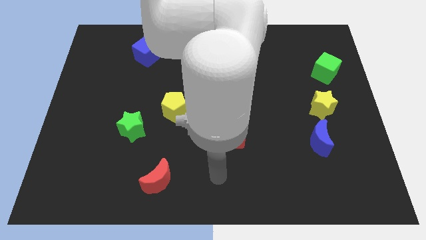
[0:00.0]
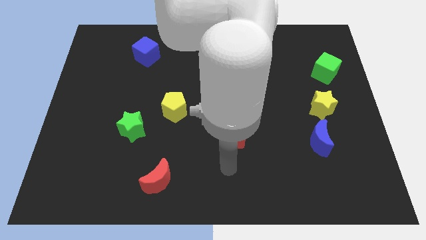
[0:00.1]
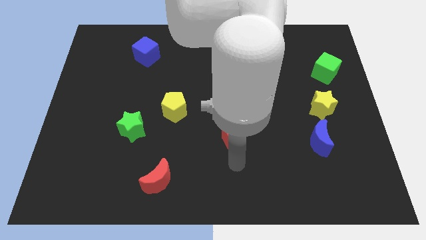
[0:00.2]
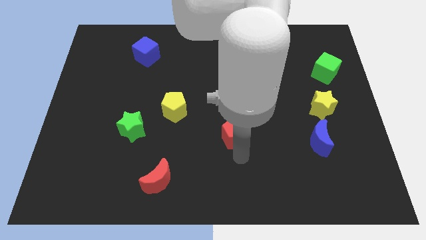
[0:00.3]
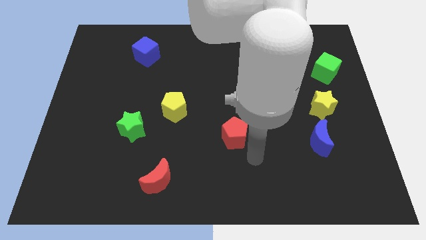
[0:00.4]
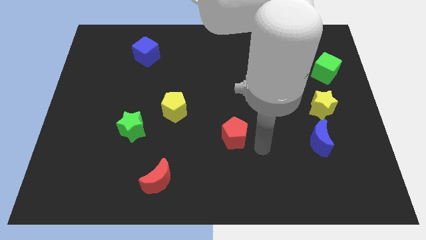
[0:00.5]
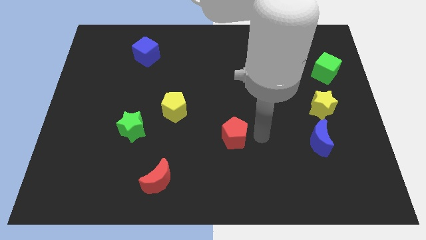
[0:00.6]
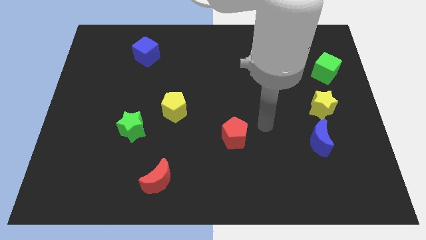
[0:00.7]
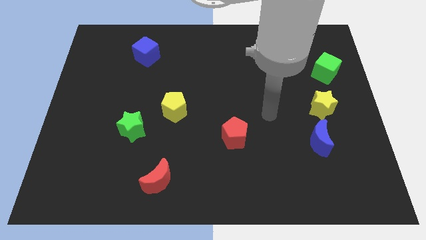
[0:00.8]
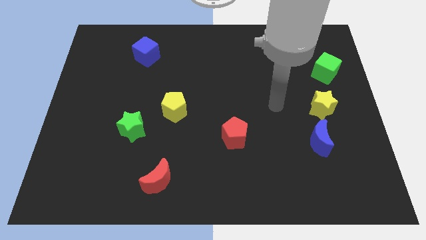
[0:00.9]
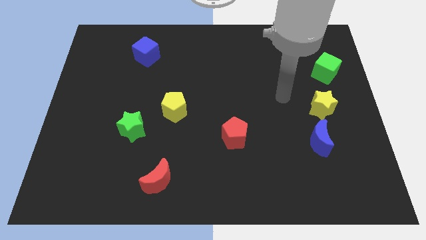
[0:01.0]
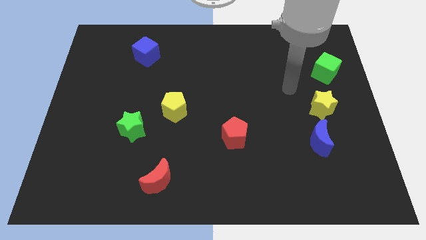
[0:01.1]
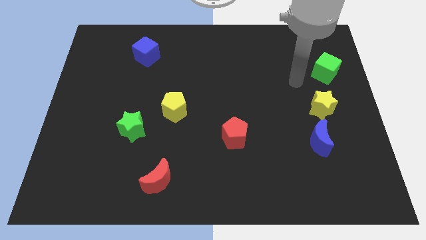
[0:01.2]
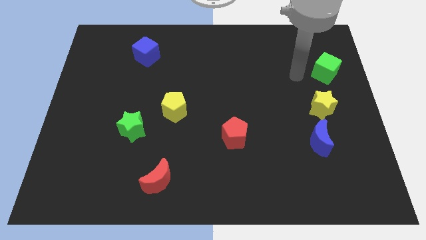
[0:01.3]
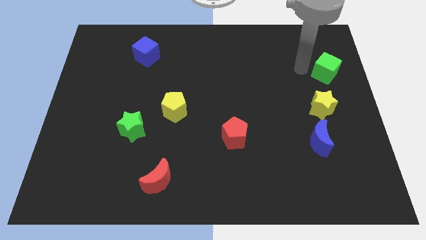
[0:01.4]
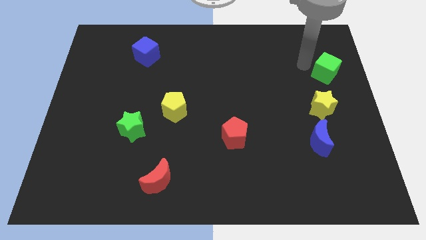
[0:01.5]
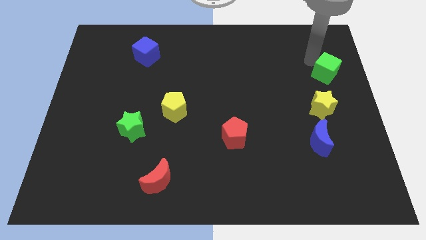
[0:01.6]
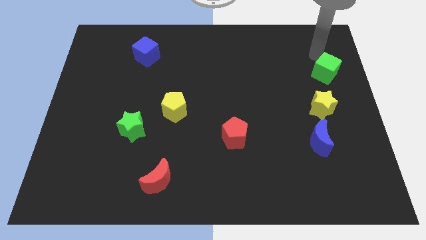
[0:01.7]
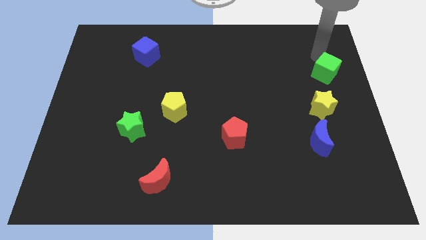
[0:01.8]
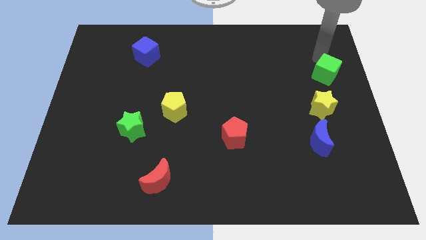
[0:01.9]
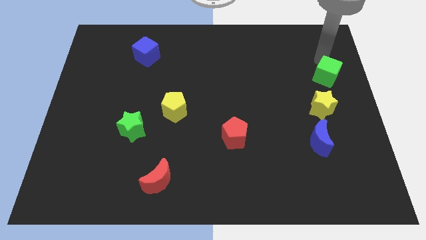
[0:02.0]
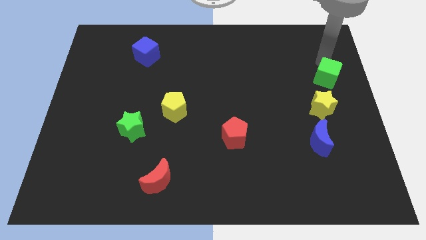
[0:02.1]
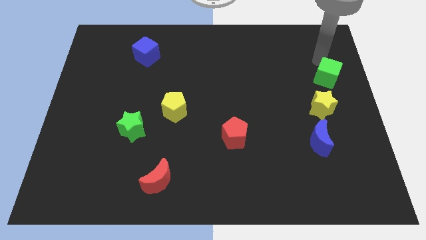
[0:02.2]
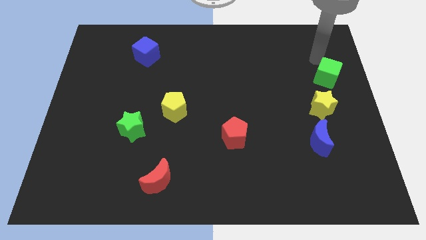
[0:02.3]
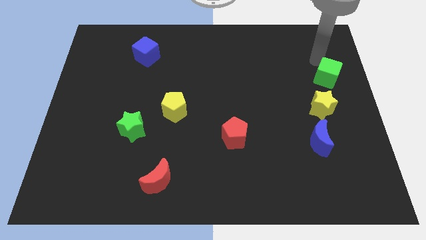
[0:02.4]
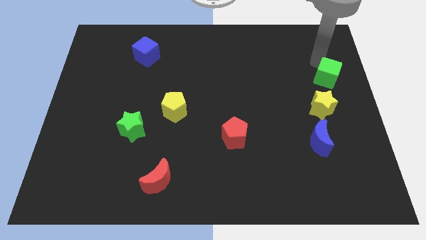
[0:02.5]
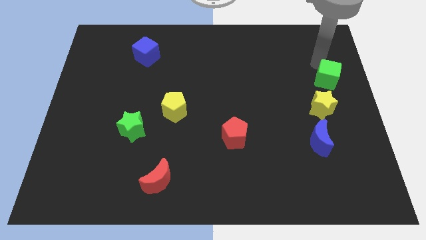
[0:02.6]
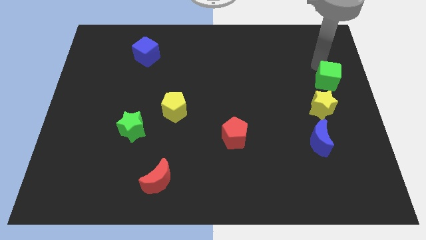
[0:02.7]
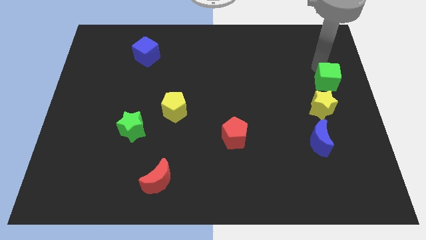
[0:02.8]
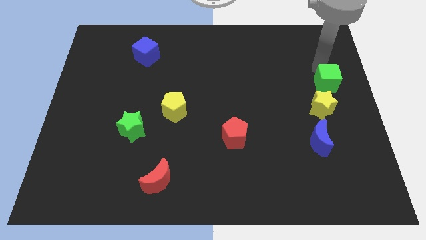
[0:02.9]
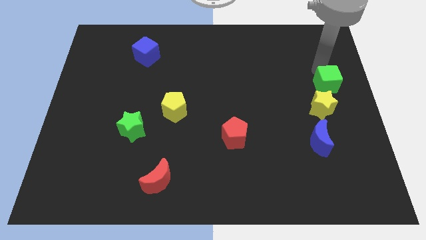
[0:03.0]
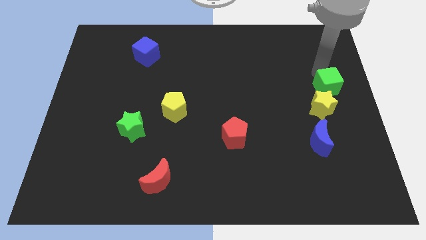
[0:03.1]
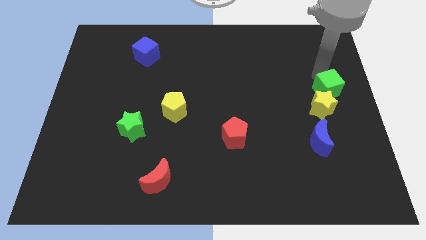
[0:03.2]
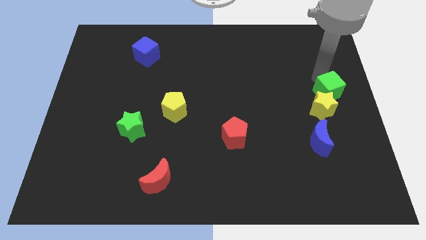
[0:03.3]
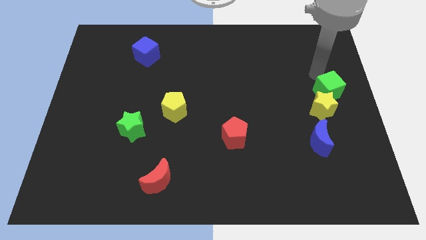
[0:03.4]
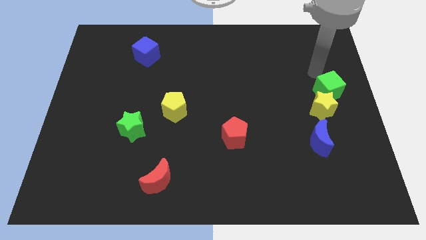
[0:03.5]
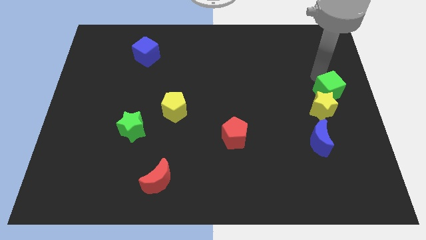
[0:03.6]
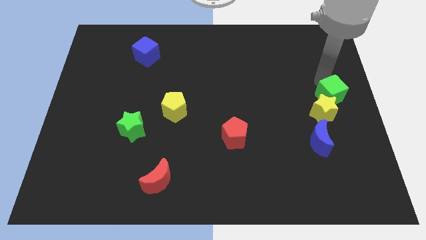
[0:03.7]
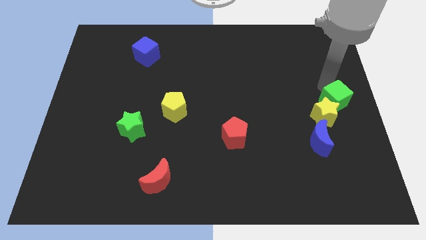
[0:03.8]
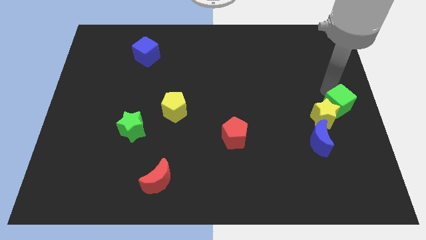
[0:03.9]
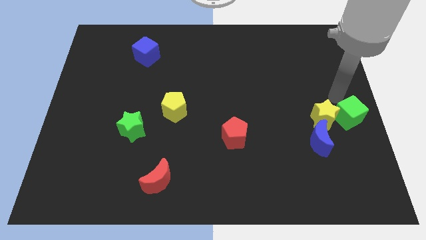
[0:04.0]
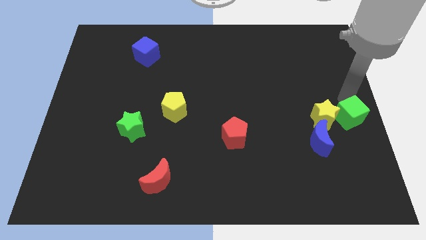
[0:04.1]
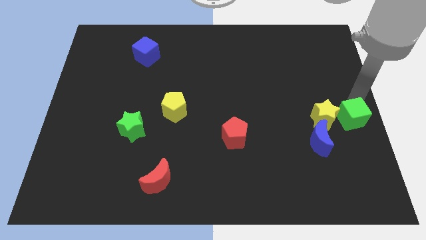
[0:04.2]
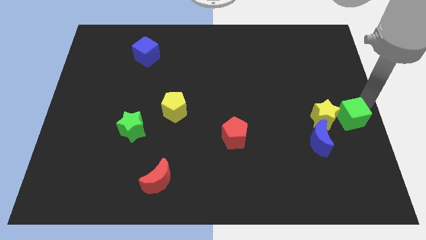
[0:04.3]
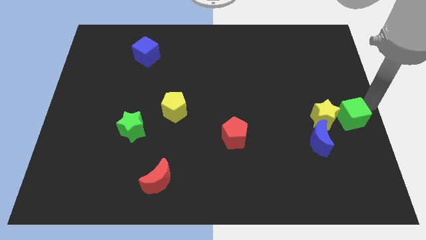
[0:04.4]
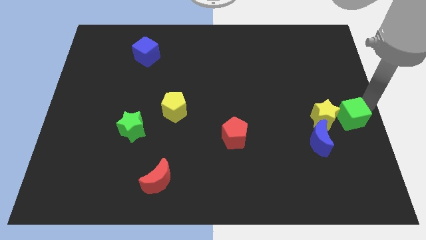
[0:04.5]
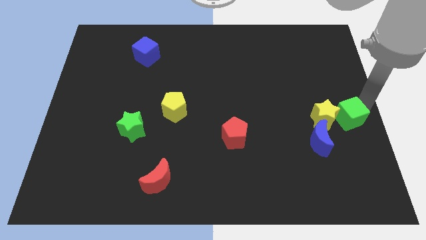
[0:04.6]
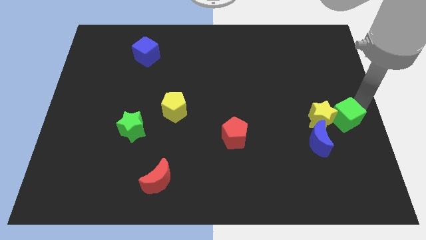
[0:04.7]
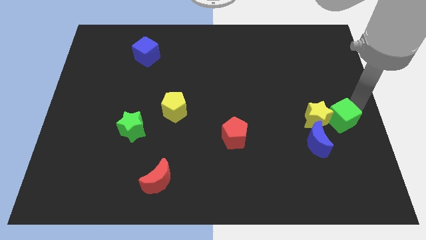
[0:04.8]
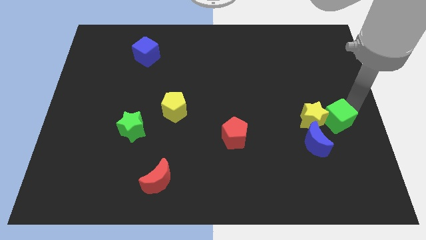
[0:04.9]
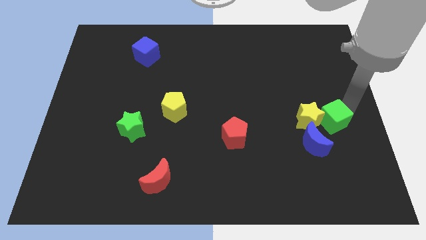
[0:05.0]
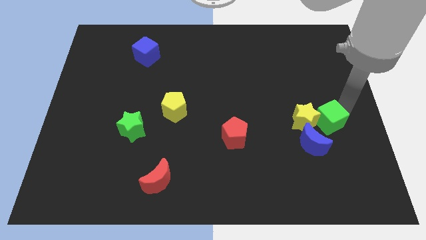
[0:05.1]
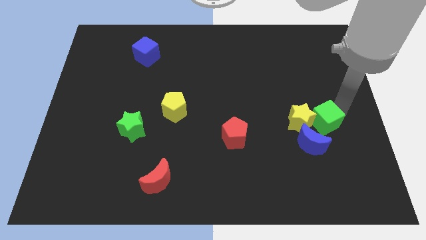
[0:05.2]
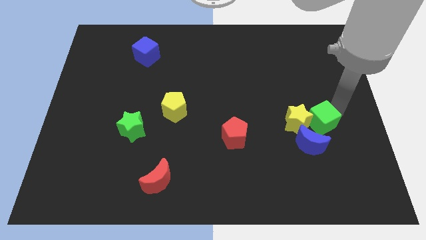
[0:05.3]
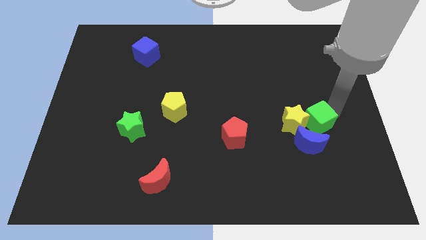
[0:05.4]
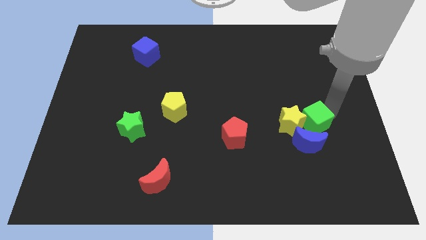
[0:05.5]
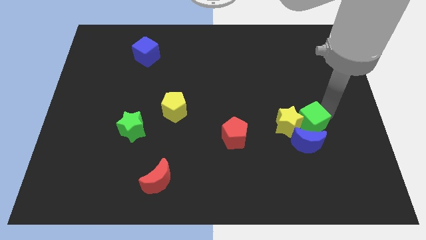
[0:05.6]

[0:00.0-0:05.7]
push the green cube next to the blue moon

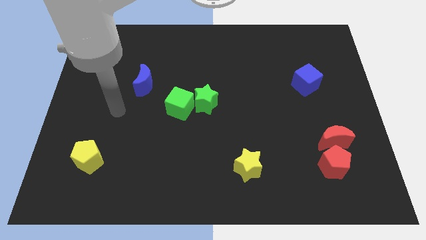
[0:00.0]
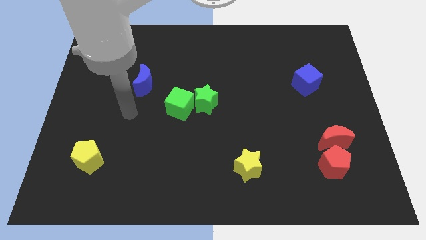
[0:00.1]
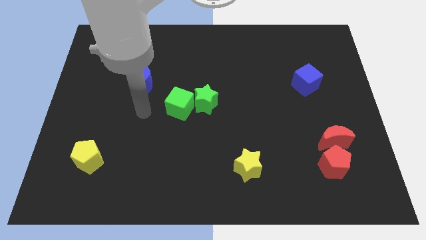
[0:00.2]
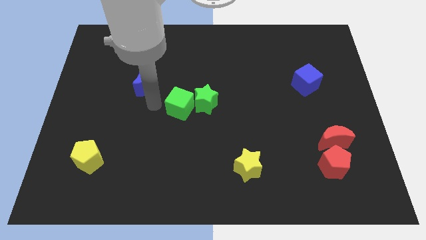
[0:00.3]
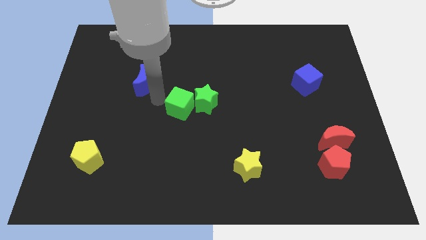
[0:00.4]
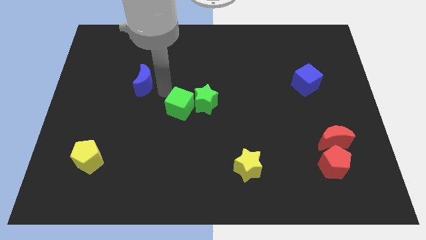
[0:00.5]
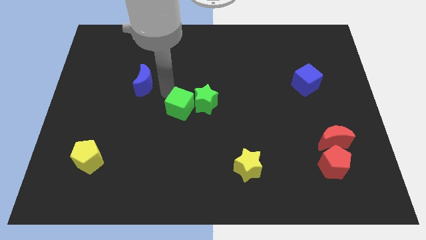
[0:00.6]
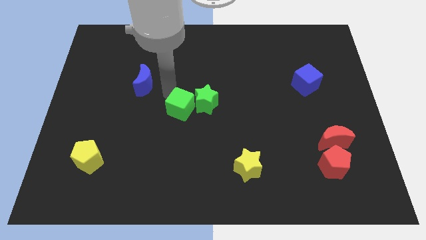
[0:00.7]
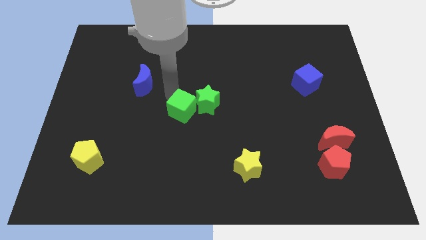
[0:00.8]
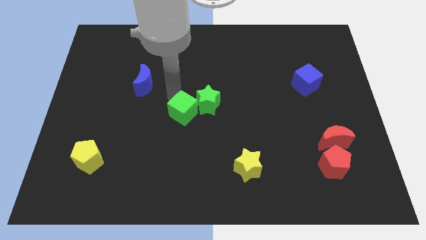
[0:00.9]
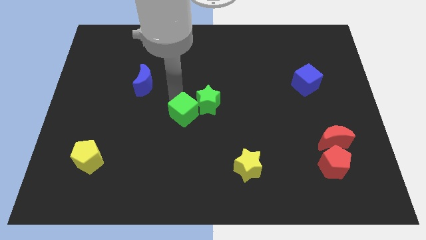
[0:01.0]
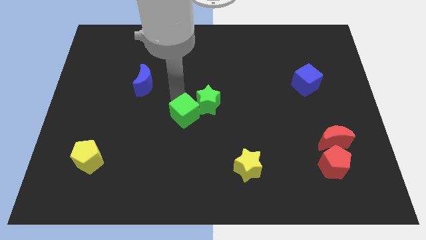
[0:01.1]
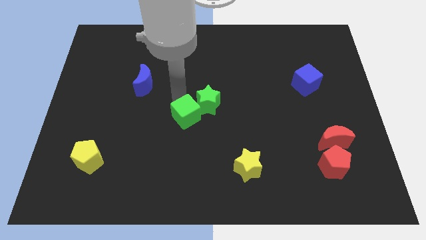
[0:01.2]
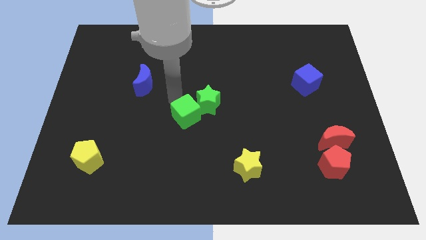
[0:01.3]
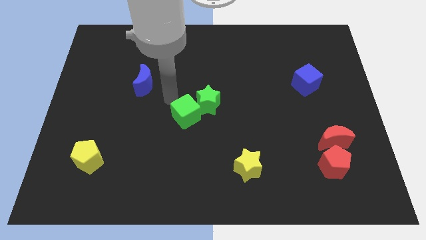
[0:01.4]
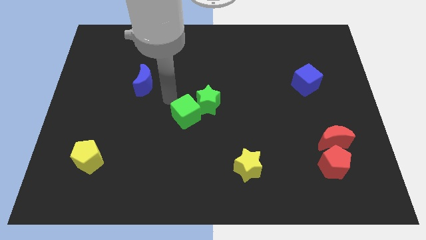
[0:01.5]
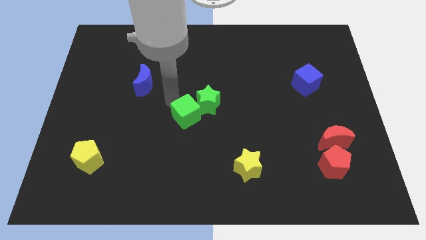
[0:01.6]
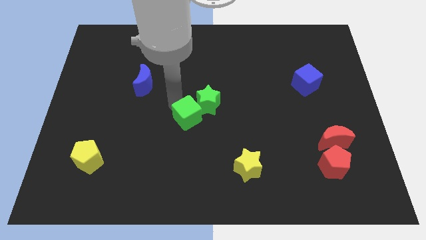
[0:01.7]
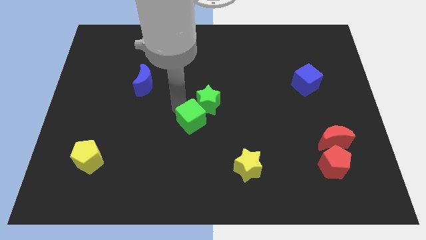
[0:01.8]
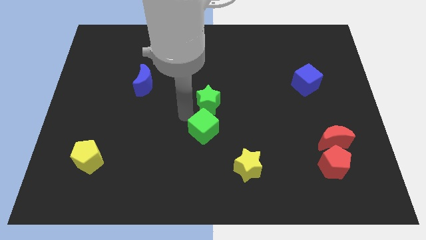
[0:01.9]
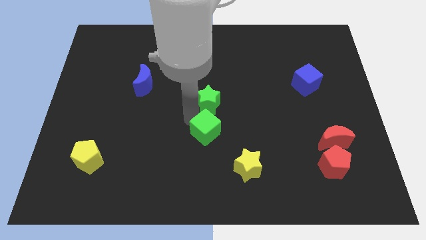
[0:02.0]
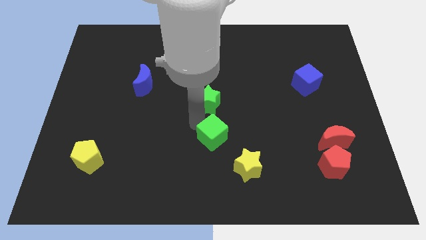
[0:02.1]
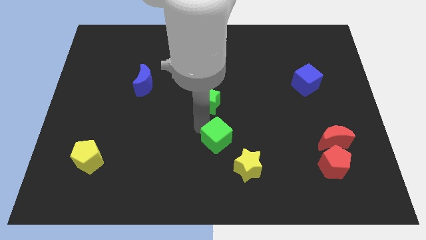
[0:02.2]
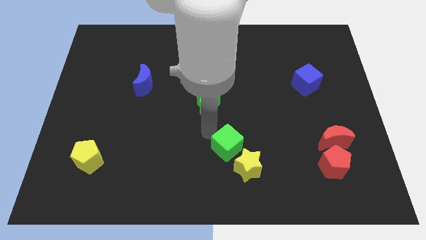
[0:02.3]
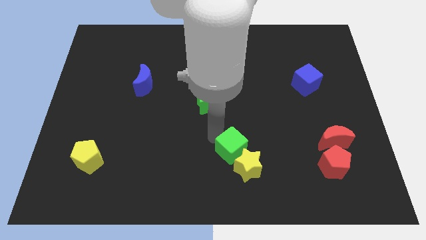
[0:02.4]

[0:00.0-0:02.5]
slide the green cube to the yellow star

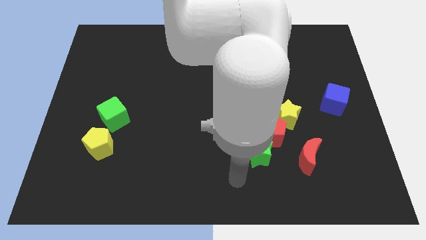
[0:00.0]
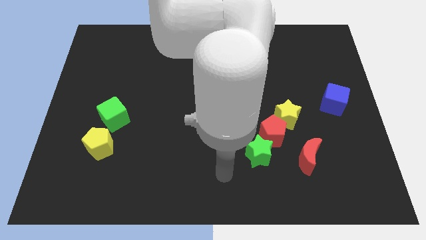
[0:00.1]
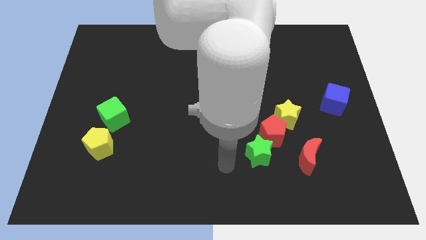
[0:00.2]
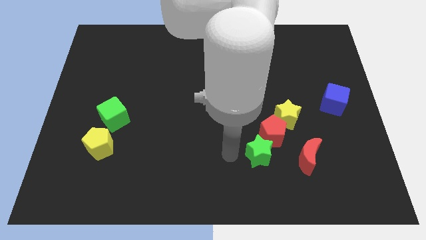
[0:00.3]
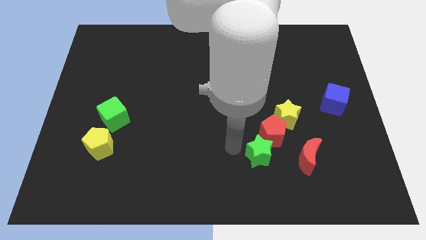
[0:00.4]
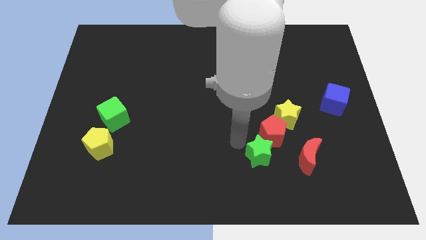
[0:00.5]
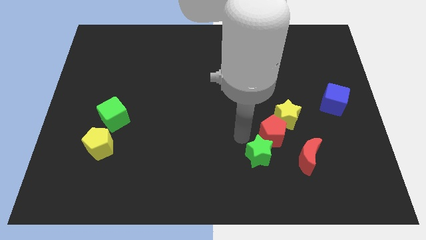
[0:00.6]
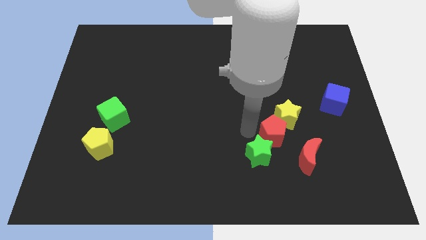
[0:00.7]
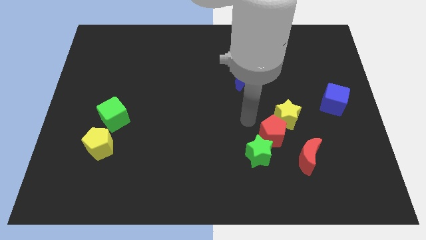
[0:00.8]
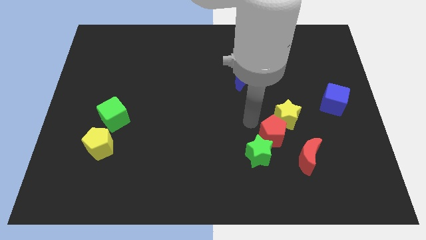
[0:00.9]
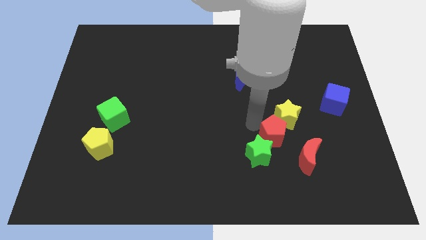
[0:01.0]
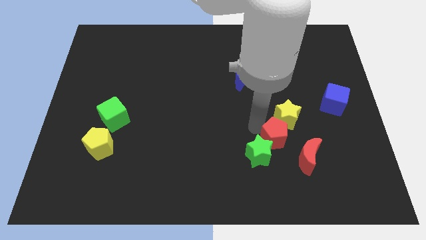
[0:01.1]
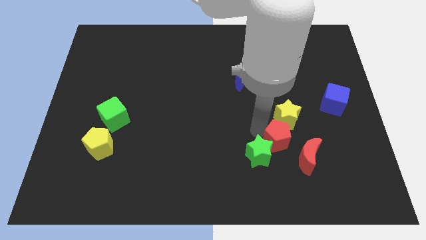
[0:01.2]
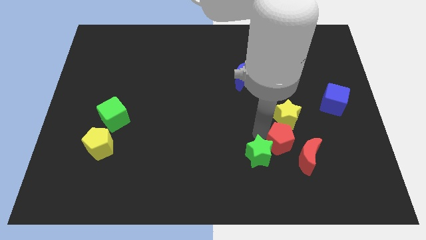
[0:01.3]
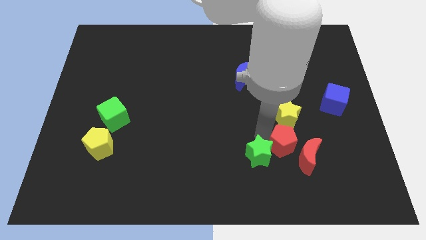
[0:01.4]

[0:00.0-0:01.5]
slide the red pentagon towards the red moon
